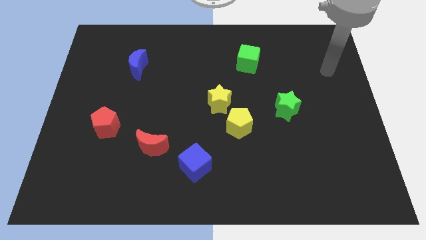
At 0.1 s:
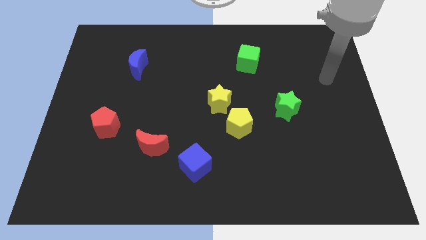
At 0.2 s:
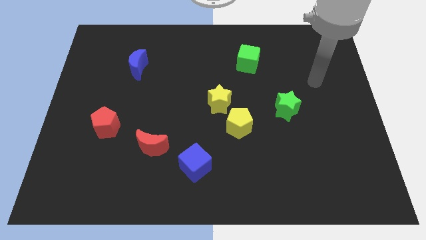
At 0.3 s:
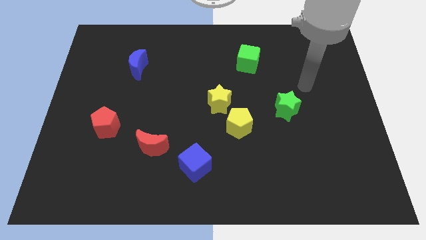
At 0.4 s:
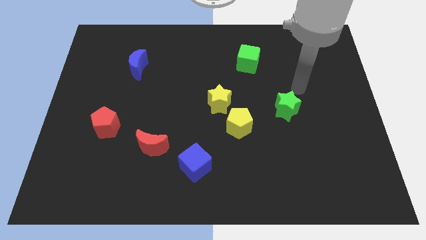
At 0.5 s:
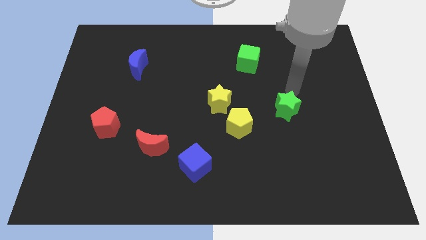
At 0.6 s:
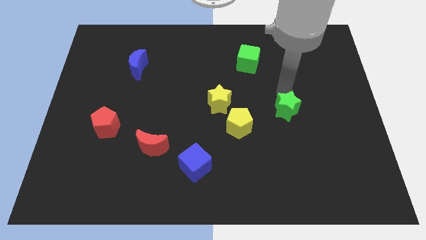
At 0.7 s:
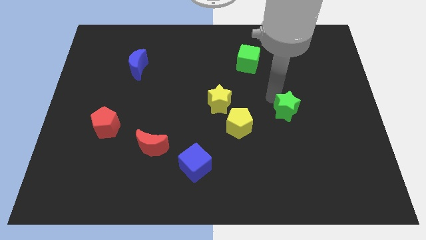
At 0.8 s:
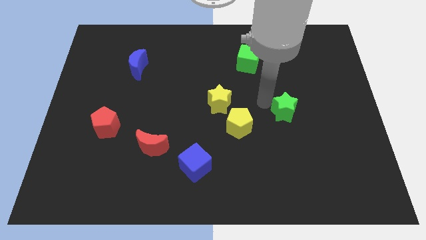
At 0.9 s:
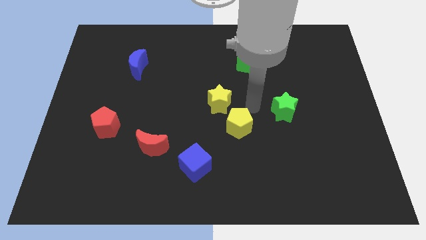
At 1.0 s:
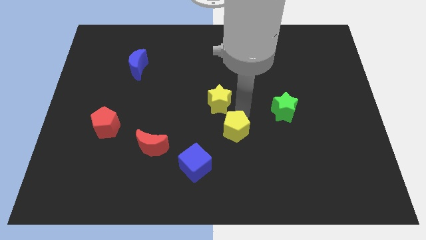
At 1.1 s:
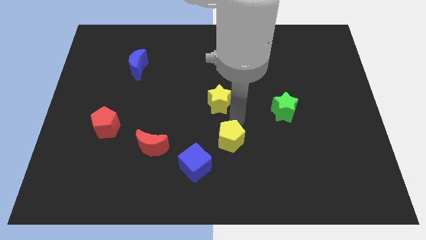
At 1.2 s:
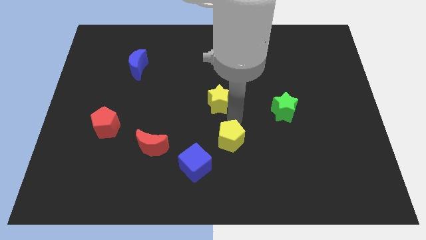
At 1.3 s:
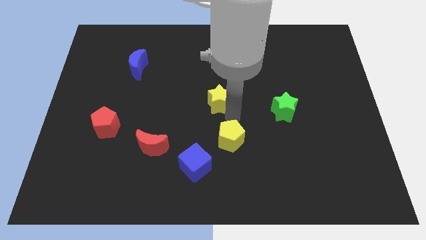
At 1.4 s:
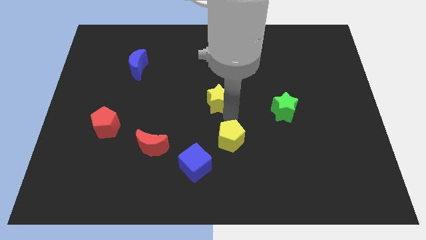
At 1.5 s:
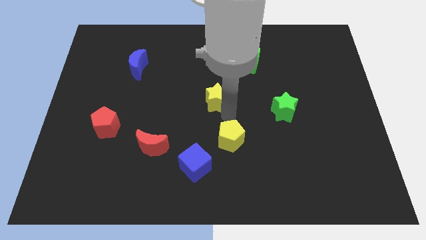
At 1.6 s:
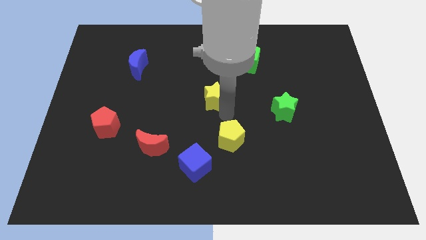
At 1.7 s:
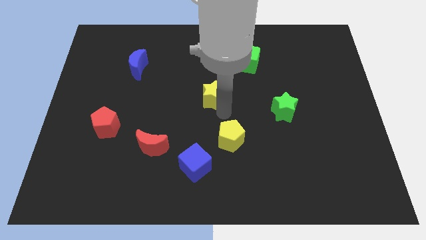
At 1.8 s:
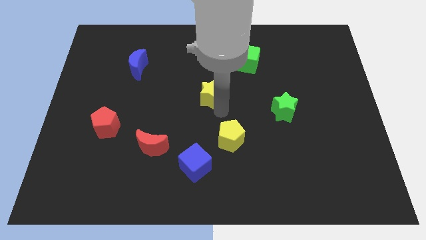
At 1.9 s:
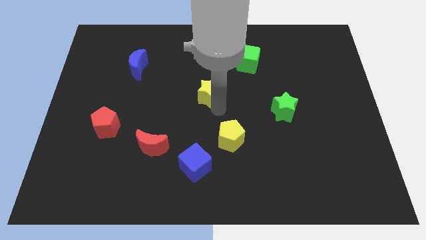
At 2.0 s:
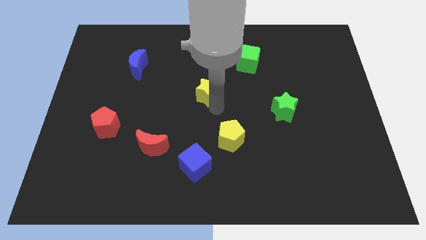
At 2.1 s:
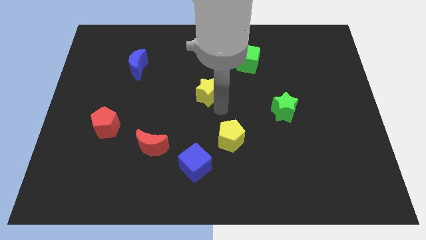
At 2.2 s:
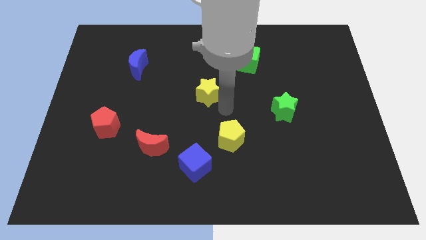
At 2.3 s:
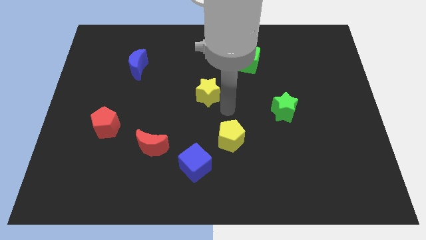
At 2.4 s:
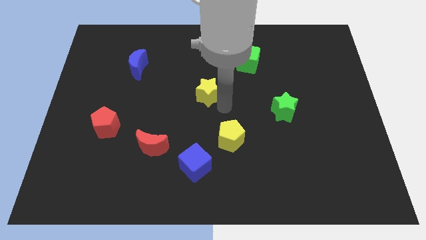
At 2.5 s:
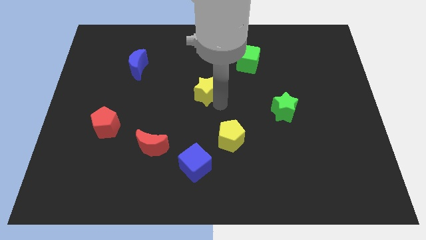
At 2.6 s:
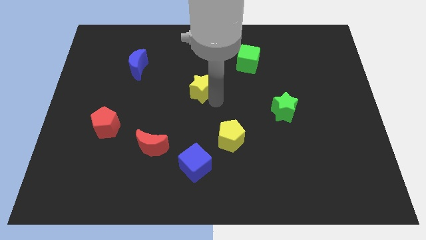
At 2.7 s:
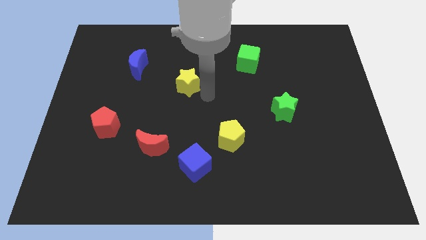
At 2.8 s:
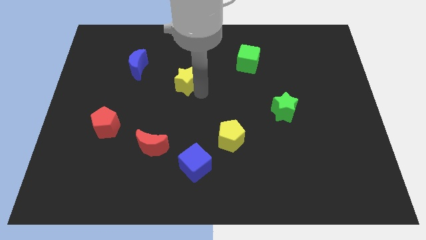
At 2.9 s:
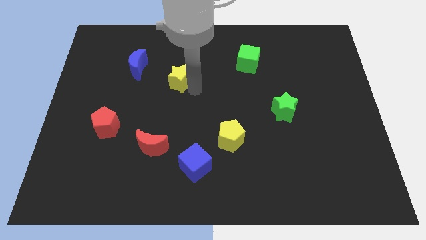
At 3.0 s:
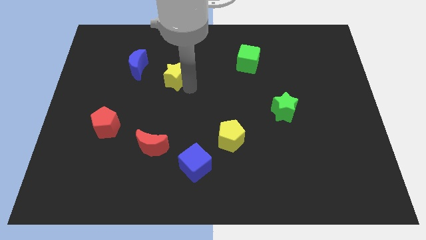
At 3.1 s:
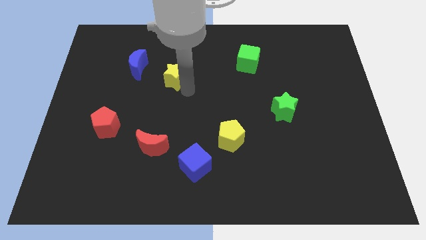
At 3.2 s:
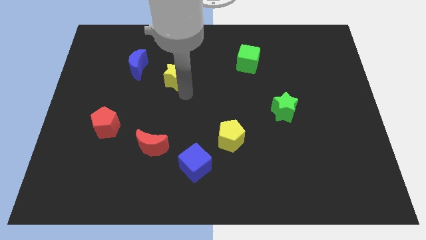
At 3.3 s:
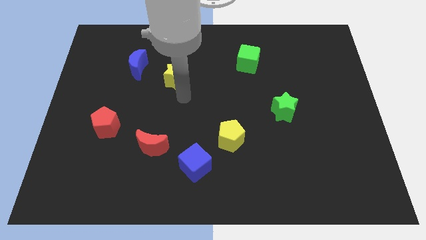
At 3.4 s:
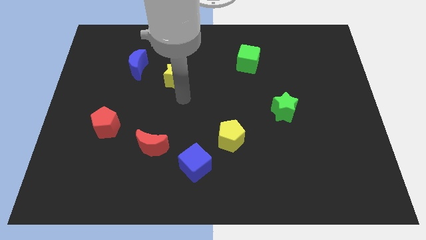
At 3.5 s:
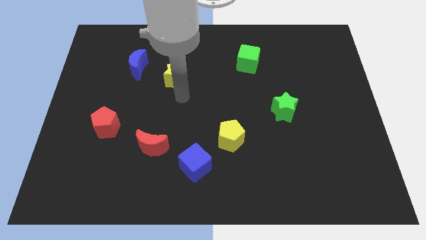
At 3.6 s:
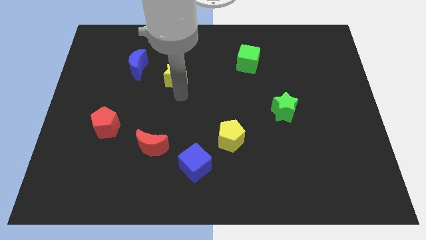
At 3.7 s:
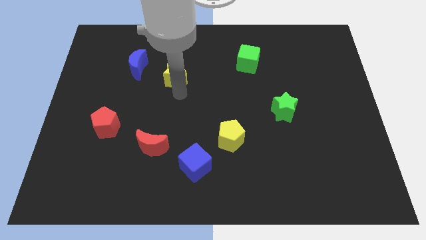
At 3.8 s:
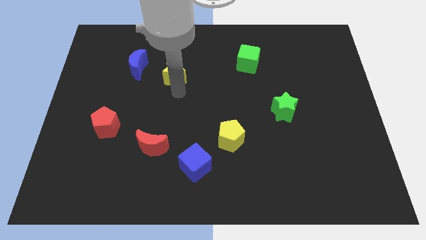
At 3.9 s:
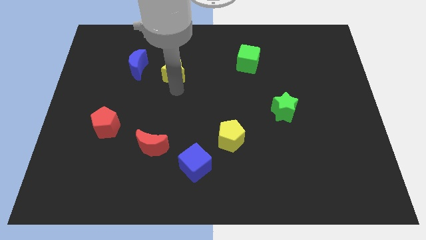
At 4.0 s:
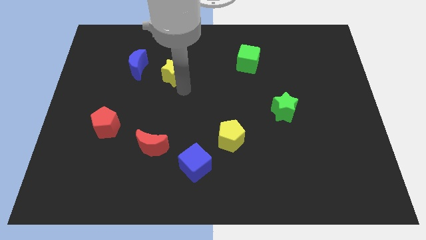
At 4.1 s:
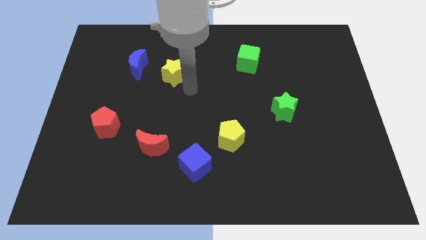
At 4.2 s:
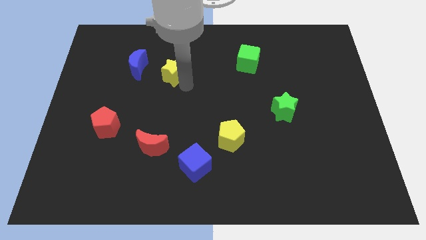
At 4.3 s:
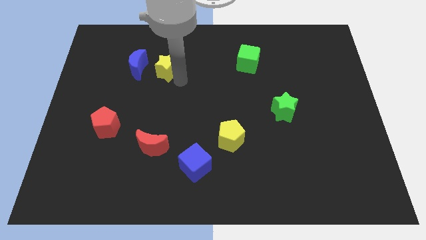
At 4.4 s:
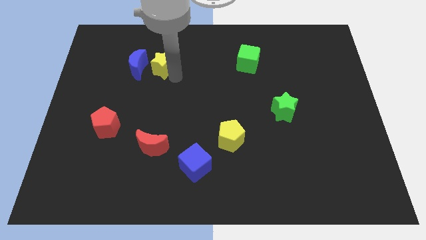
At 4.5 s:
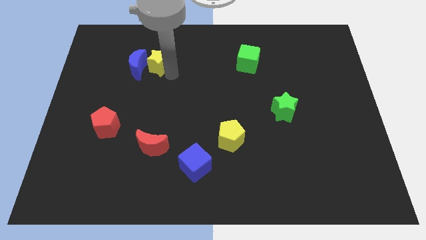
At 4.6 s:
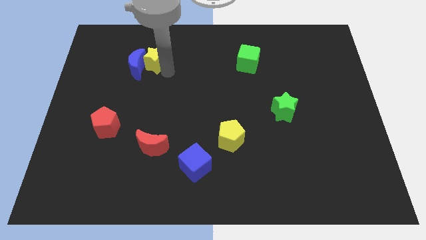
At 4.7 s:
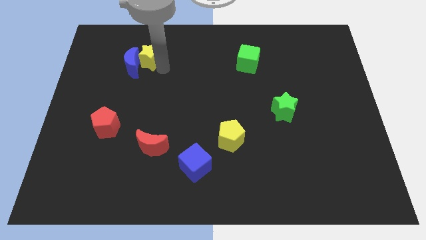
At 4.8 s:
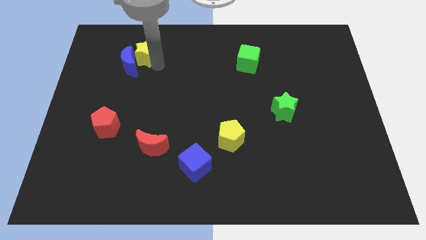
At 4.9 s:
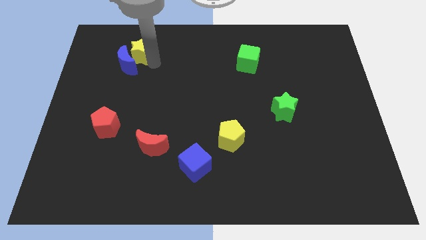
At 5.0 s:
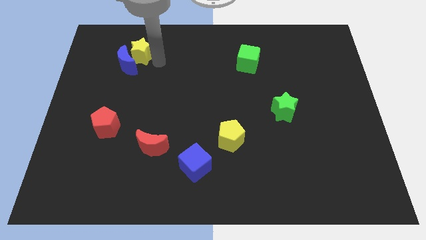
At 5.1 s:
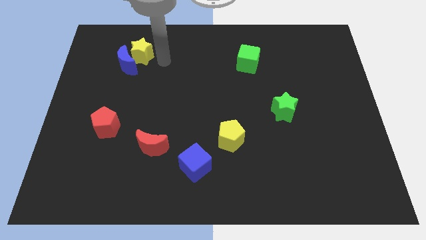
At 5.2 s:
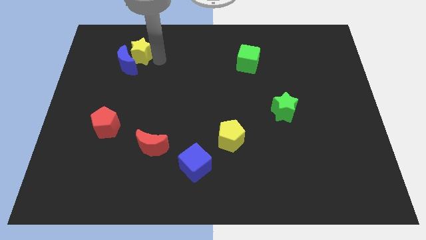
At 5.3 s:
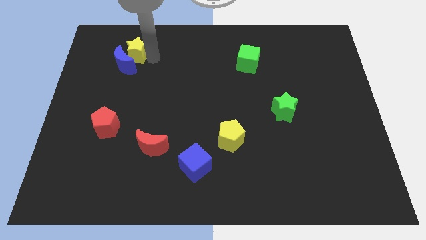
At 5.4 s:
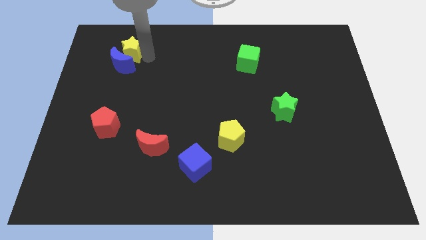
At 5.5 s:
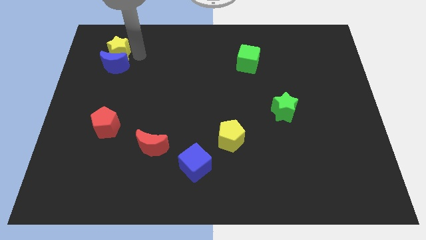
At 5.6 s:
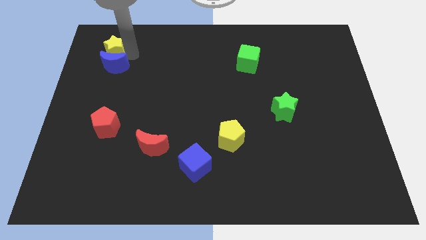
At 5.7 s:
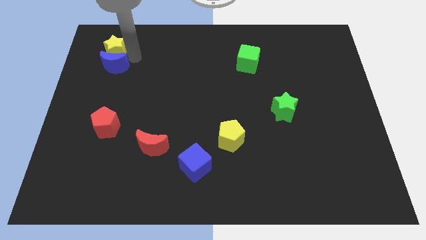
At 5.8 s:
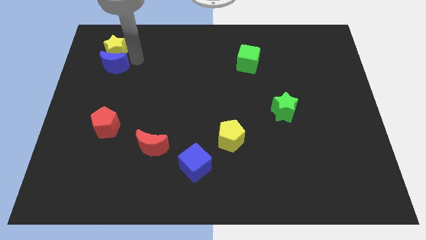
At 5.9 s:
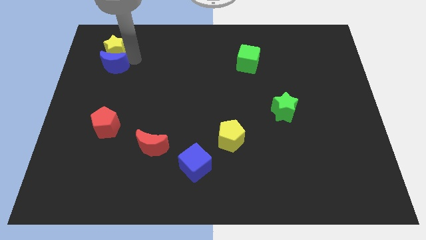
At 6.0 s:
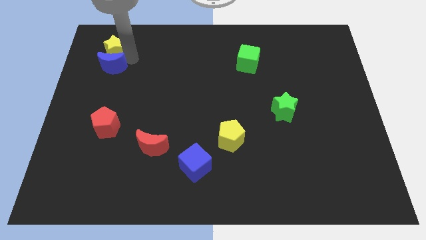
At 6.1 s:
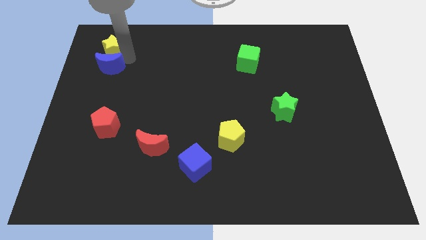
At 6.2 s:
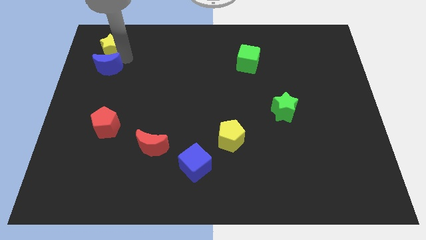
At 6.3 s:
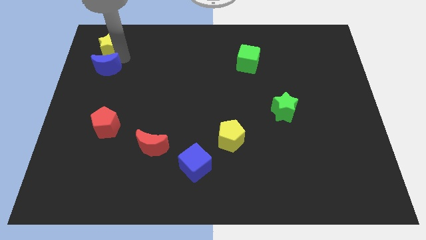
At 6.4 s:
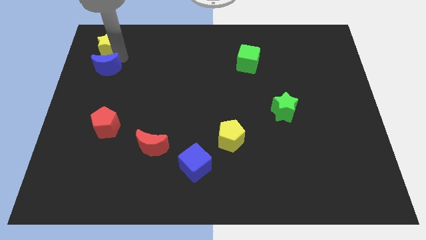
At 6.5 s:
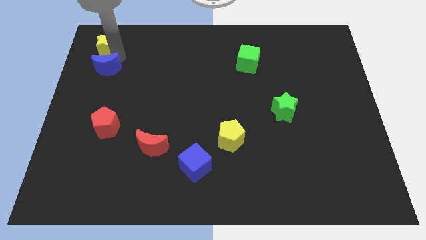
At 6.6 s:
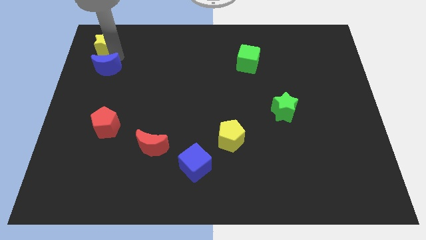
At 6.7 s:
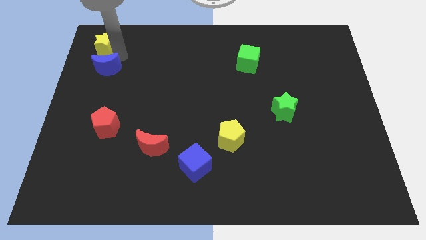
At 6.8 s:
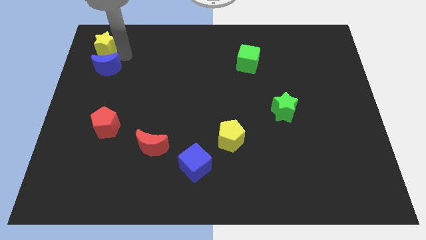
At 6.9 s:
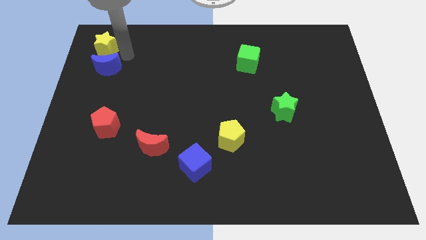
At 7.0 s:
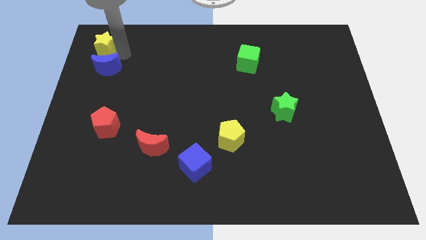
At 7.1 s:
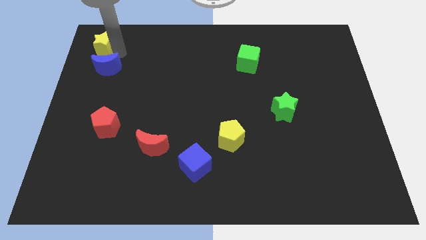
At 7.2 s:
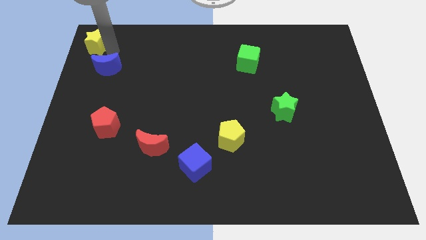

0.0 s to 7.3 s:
move the yellow star to the top left corner
